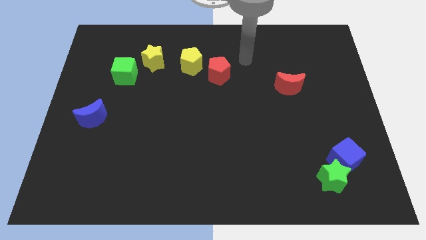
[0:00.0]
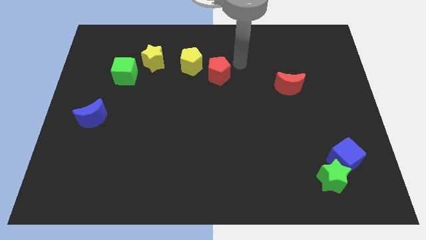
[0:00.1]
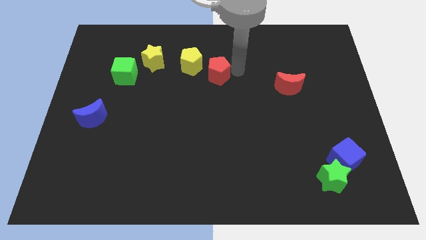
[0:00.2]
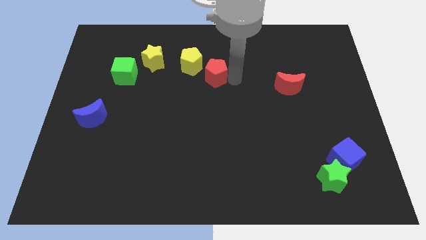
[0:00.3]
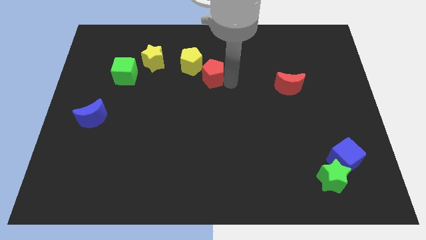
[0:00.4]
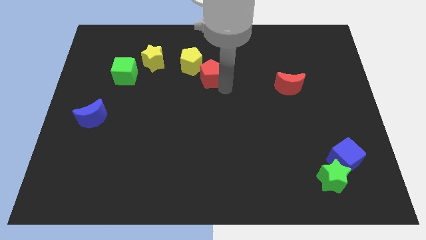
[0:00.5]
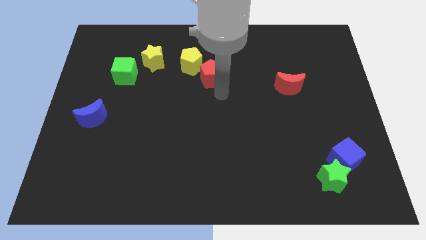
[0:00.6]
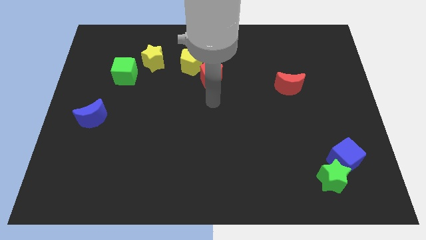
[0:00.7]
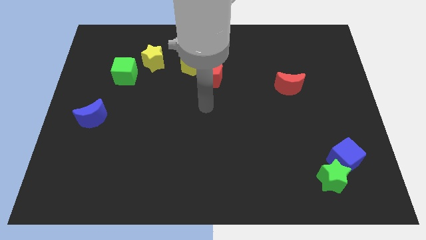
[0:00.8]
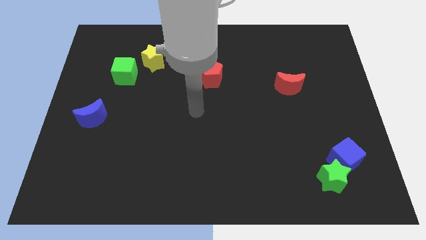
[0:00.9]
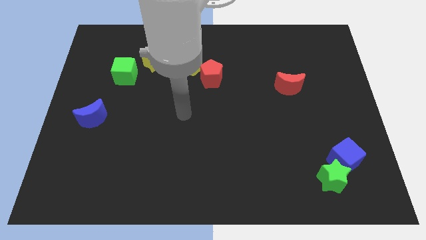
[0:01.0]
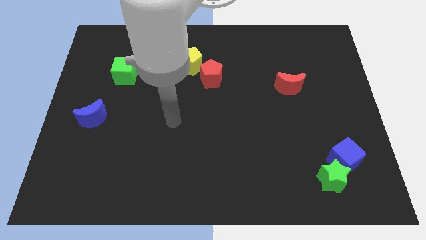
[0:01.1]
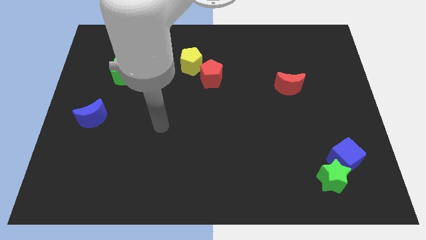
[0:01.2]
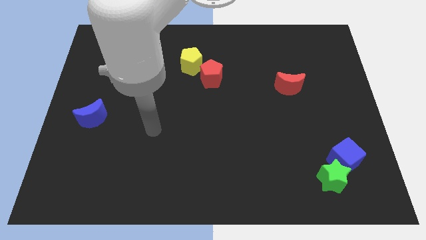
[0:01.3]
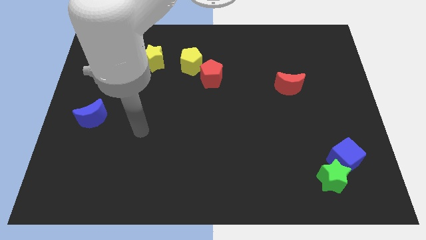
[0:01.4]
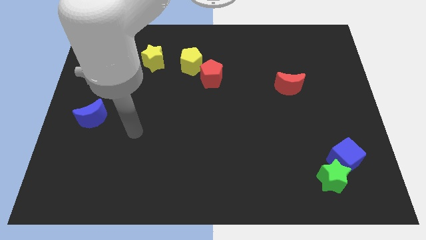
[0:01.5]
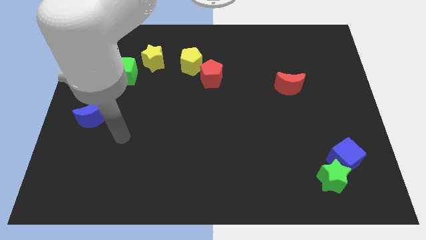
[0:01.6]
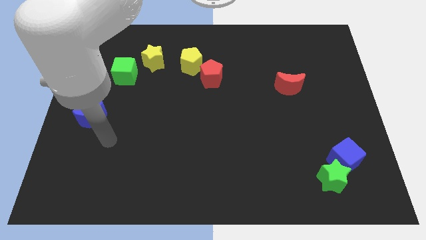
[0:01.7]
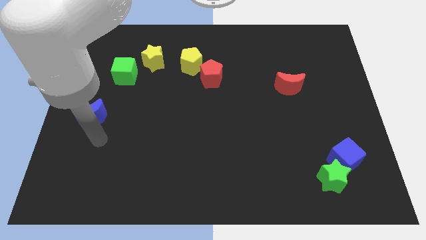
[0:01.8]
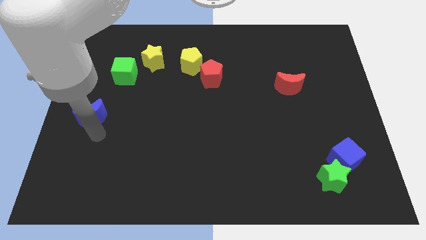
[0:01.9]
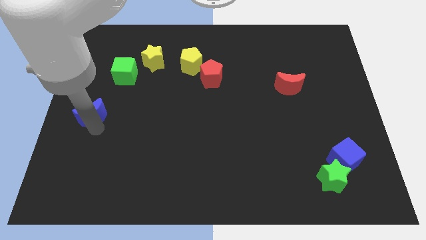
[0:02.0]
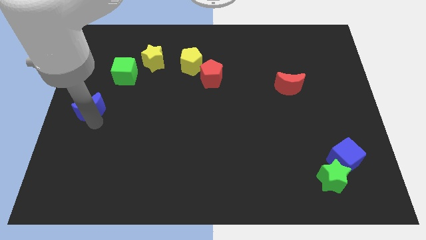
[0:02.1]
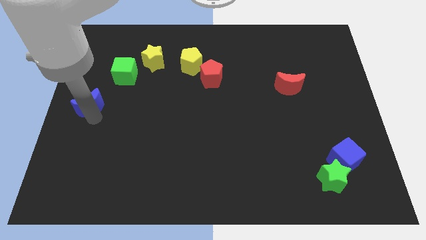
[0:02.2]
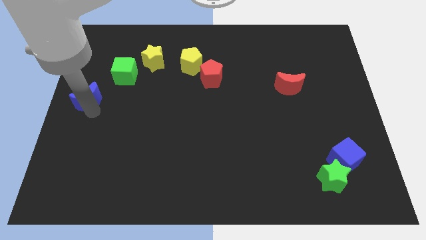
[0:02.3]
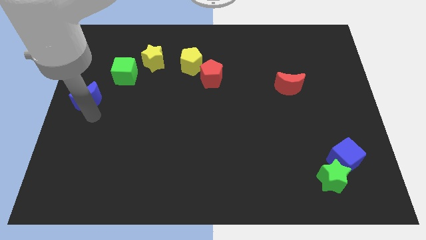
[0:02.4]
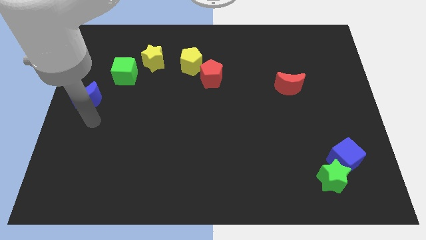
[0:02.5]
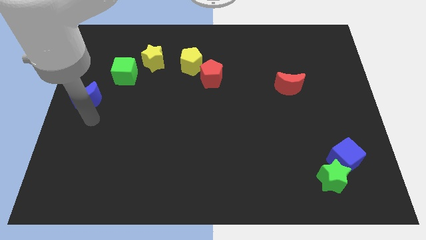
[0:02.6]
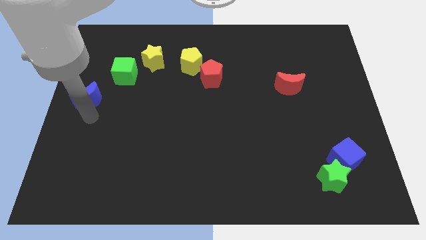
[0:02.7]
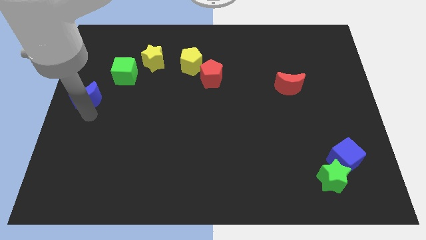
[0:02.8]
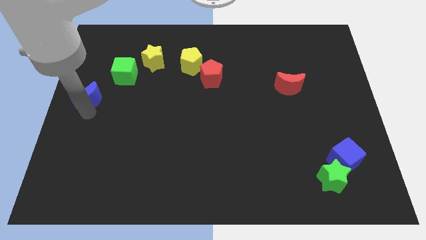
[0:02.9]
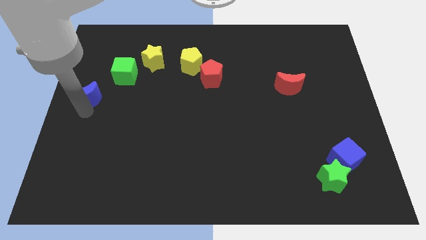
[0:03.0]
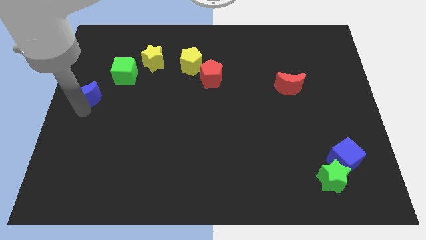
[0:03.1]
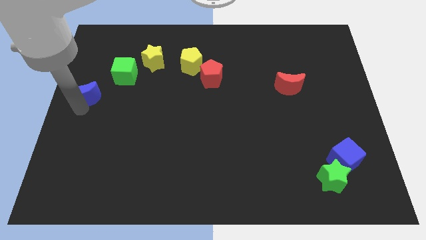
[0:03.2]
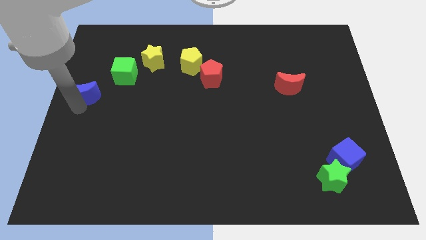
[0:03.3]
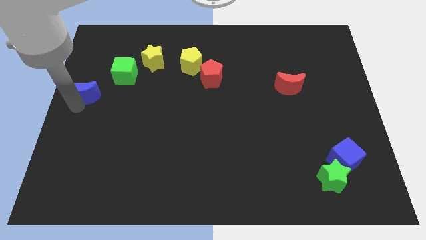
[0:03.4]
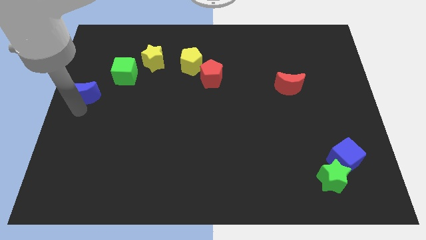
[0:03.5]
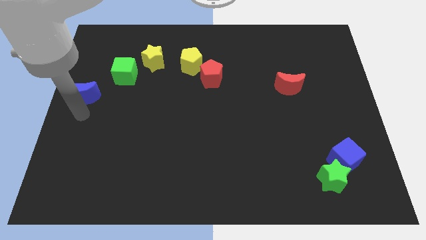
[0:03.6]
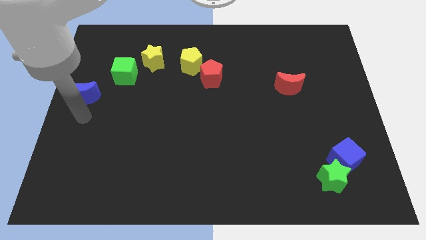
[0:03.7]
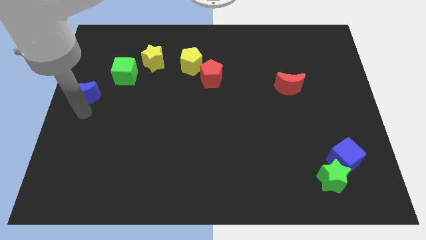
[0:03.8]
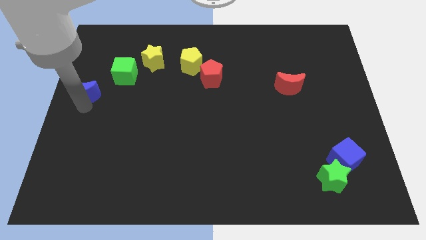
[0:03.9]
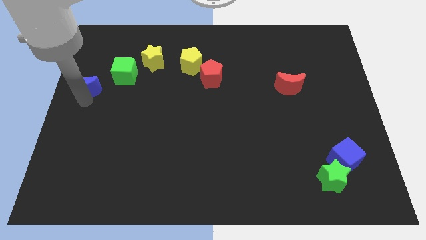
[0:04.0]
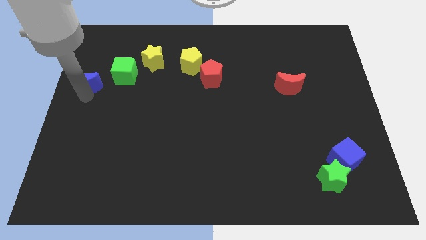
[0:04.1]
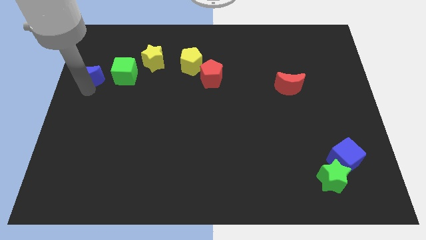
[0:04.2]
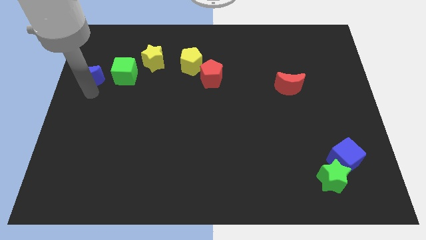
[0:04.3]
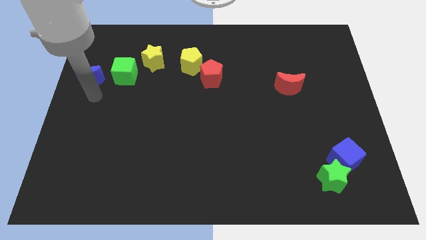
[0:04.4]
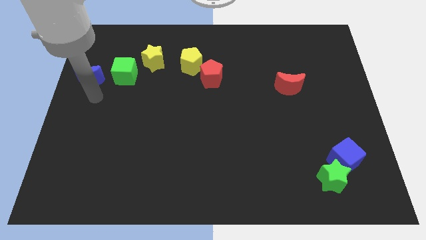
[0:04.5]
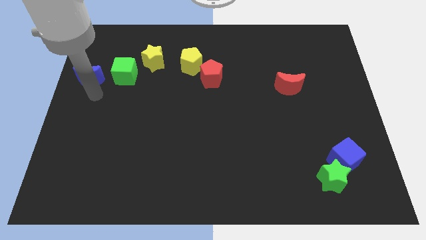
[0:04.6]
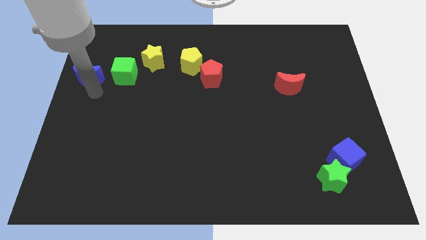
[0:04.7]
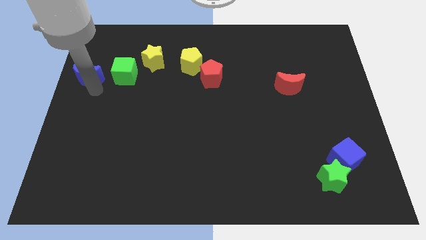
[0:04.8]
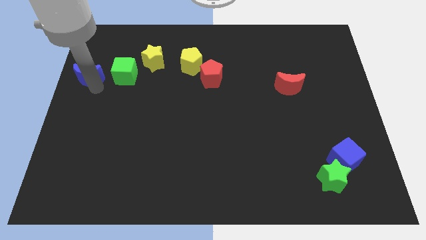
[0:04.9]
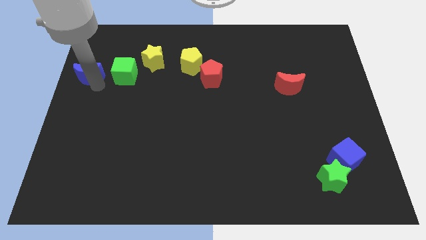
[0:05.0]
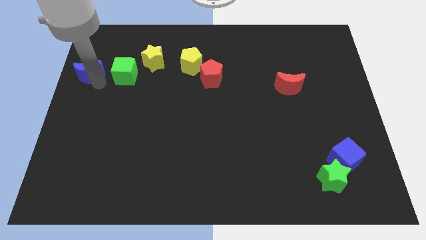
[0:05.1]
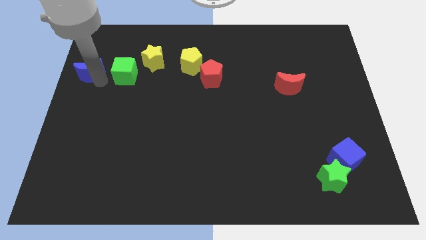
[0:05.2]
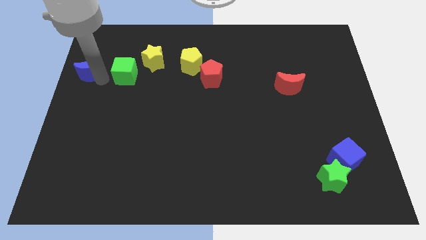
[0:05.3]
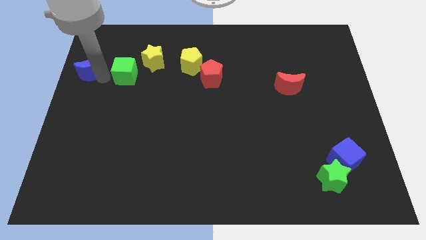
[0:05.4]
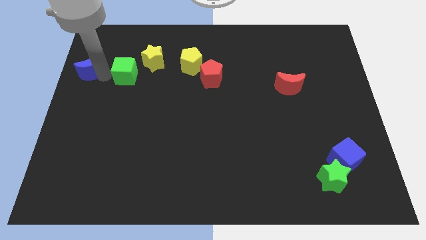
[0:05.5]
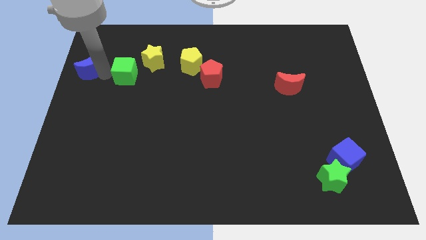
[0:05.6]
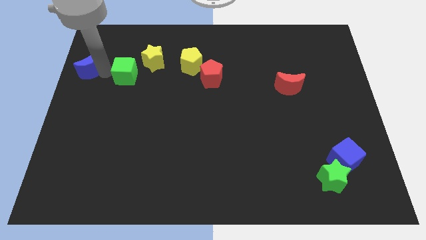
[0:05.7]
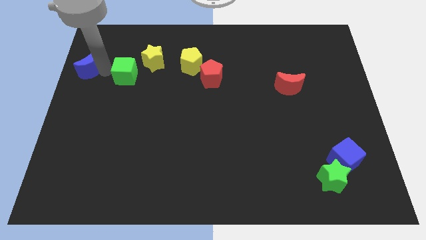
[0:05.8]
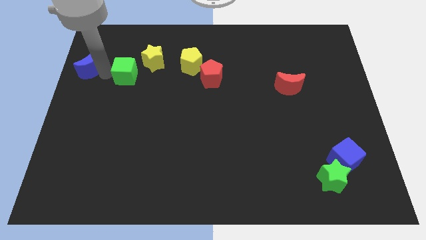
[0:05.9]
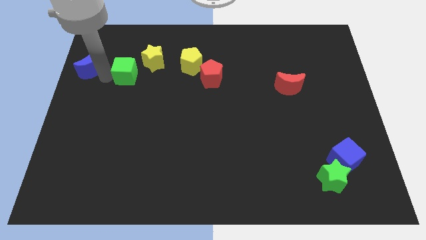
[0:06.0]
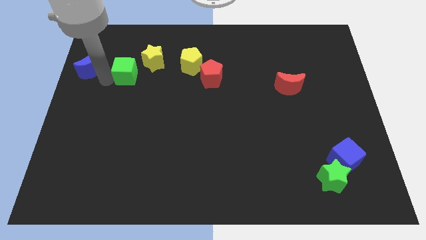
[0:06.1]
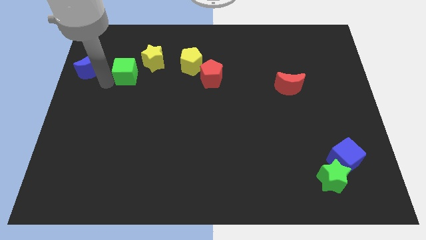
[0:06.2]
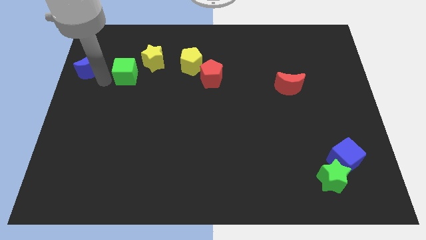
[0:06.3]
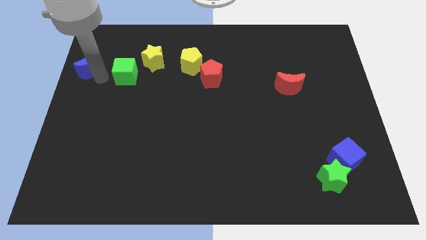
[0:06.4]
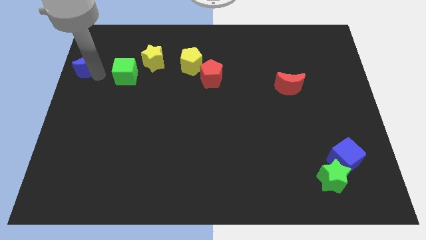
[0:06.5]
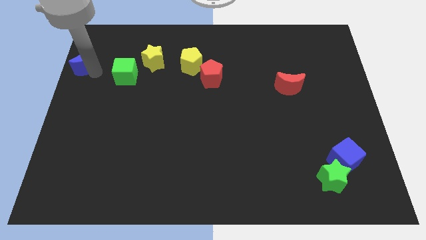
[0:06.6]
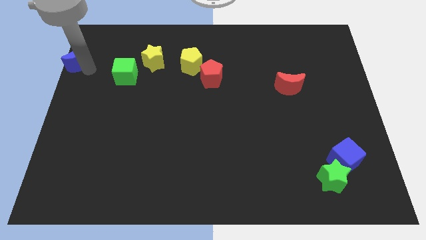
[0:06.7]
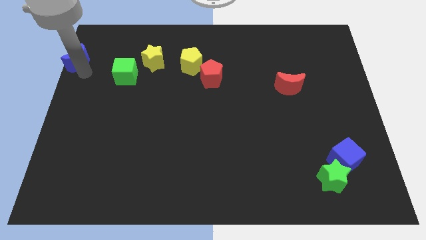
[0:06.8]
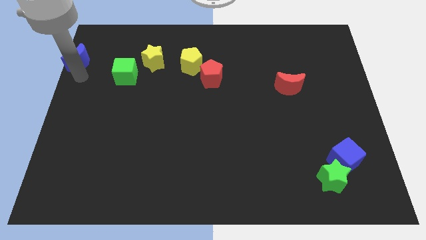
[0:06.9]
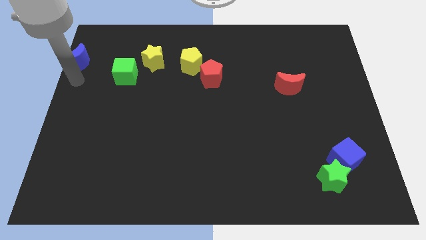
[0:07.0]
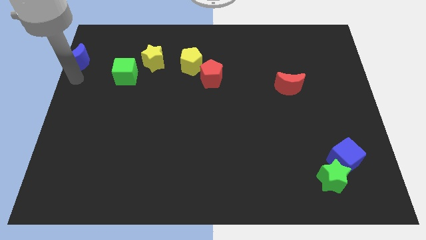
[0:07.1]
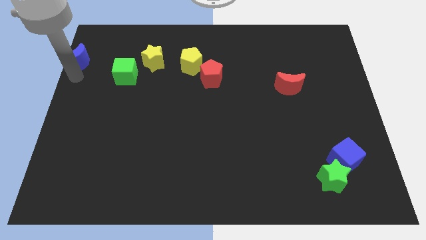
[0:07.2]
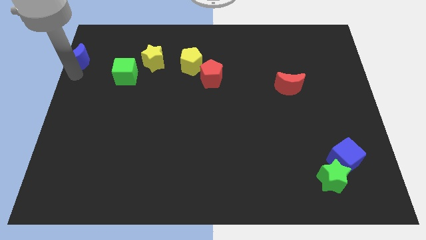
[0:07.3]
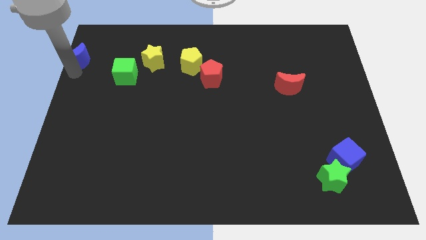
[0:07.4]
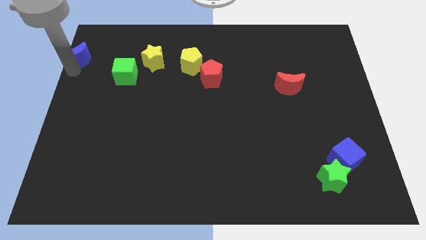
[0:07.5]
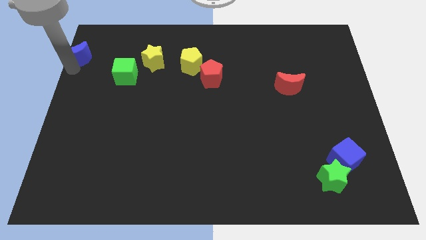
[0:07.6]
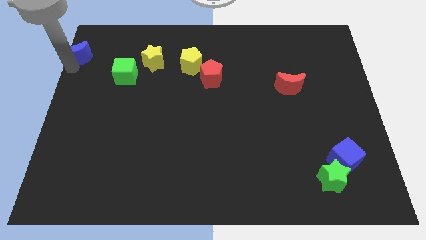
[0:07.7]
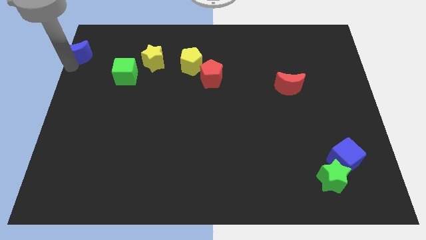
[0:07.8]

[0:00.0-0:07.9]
move the blue moon to the top left corner
